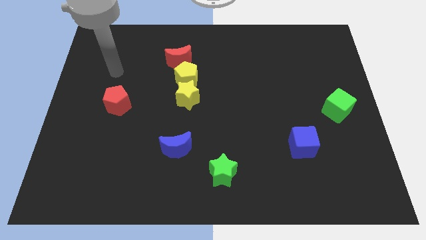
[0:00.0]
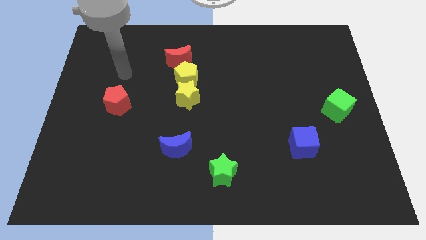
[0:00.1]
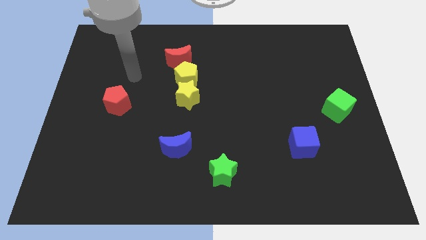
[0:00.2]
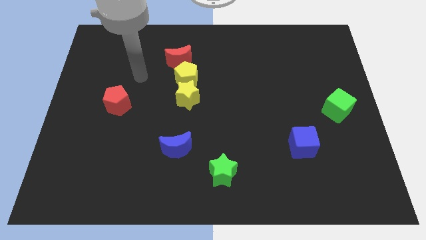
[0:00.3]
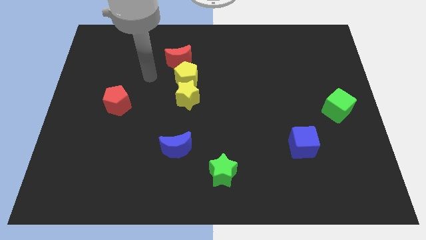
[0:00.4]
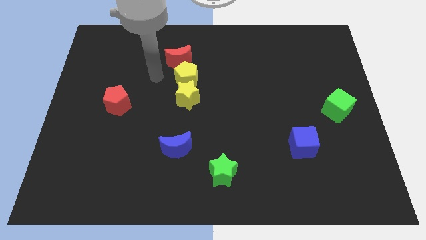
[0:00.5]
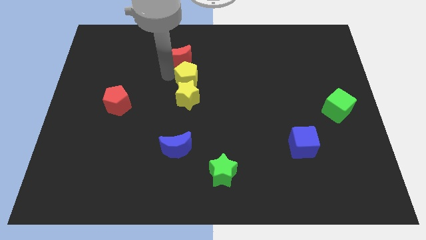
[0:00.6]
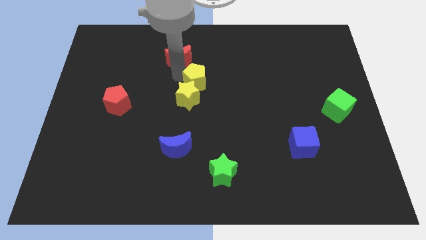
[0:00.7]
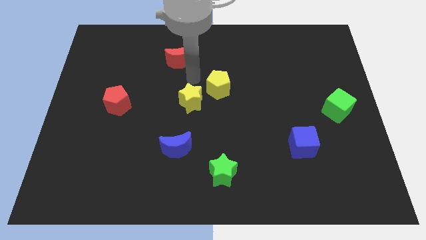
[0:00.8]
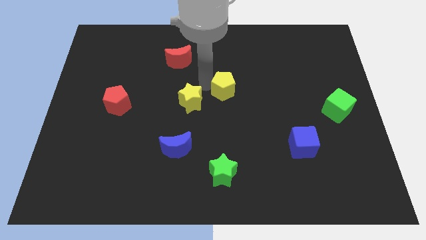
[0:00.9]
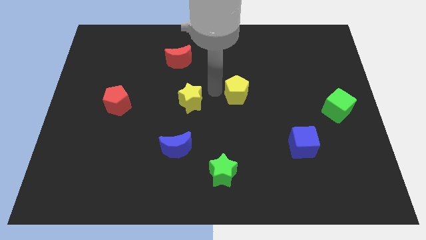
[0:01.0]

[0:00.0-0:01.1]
pull the yellow star apart from the yellow pentagon

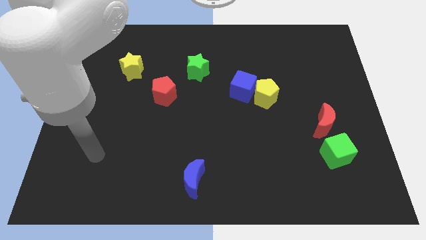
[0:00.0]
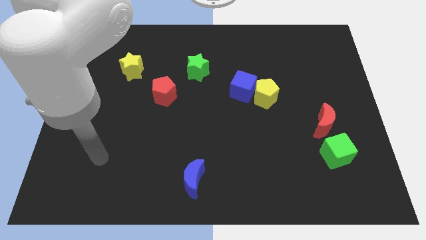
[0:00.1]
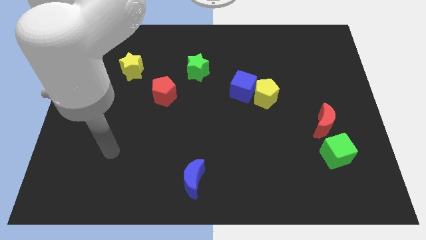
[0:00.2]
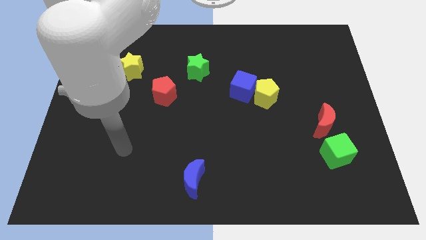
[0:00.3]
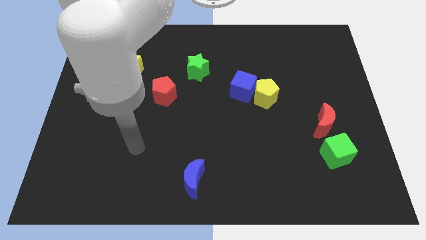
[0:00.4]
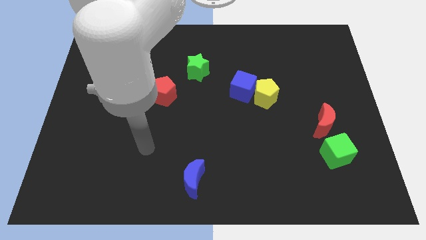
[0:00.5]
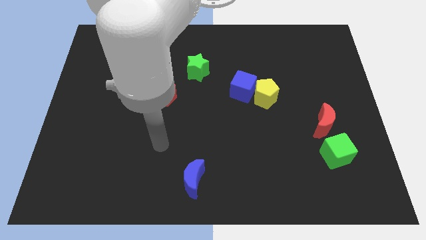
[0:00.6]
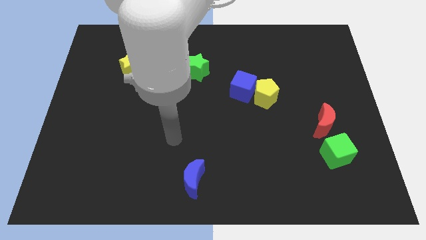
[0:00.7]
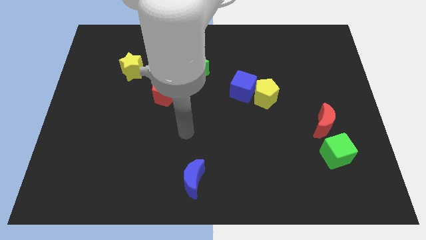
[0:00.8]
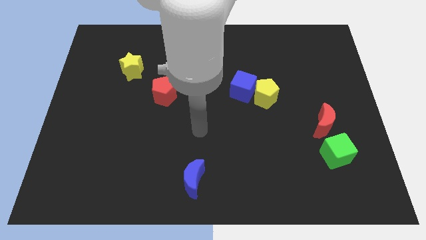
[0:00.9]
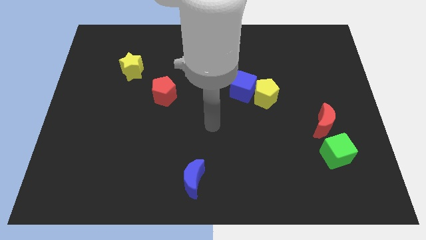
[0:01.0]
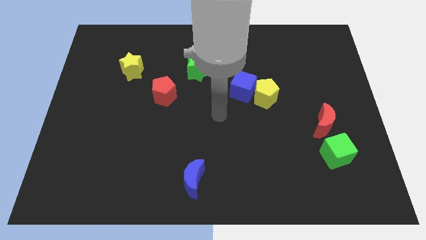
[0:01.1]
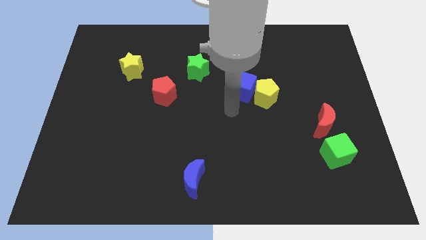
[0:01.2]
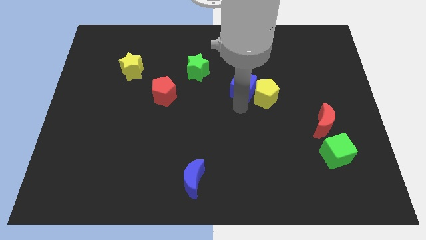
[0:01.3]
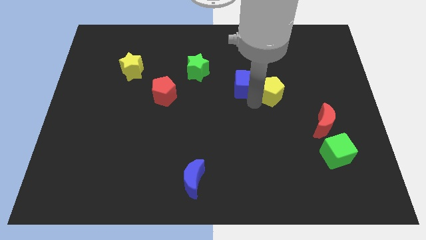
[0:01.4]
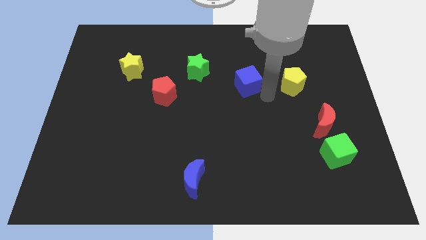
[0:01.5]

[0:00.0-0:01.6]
move the blue cube away from the yellow pentagon

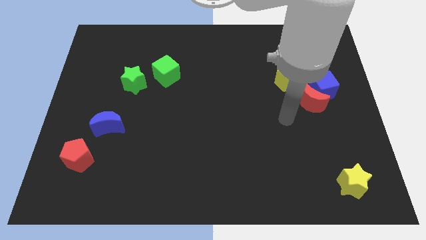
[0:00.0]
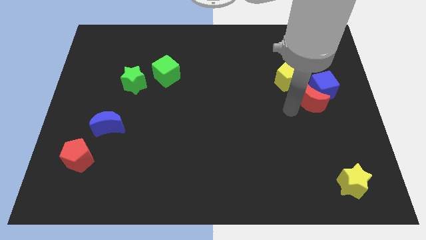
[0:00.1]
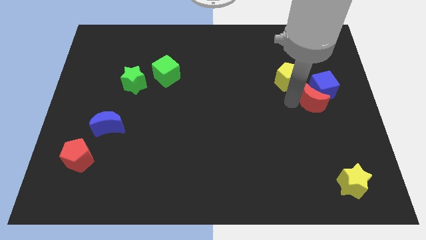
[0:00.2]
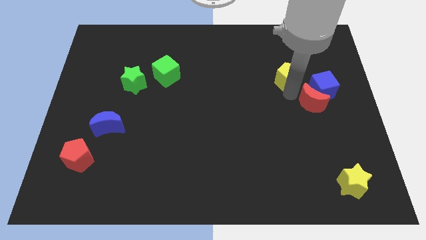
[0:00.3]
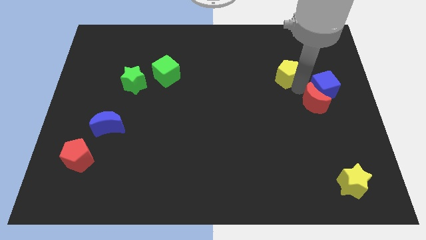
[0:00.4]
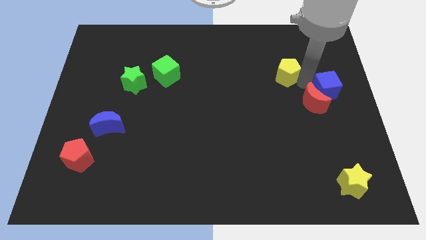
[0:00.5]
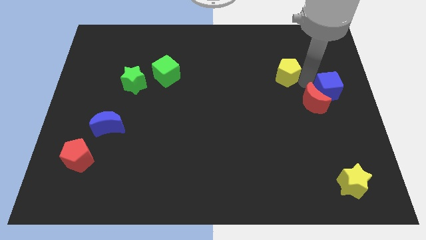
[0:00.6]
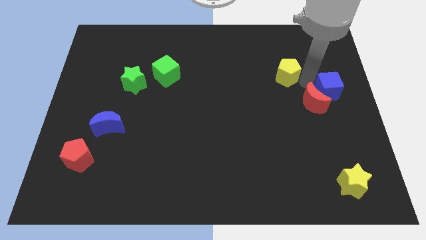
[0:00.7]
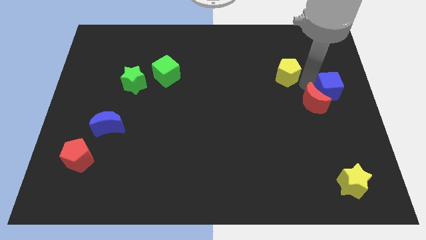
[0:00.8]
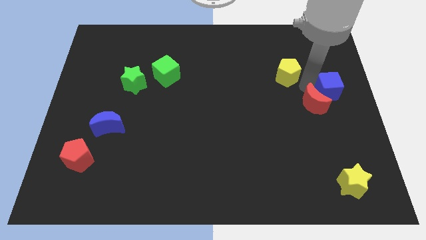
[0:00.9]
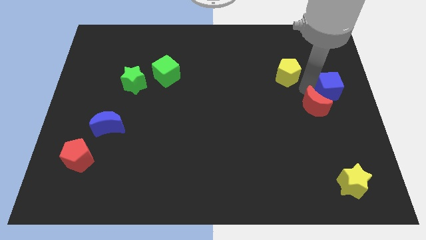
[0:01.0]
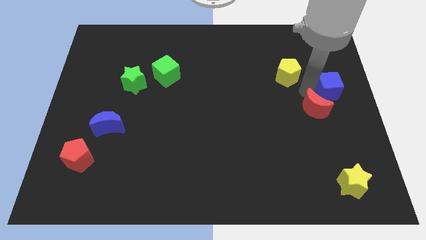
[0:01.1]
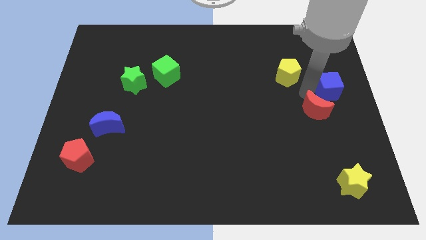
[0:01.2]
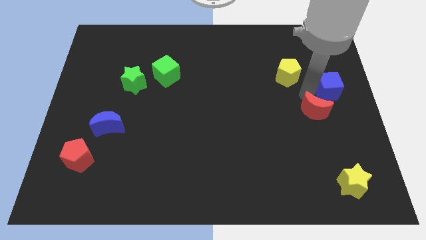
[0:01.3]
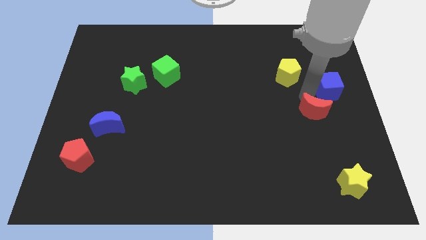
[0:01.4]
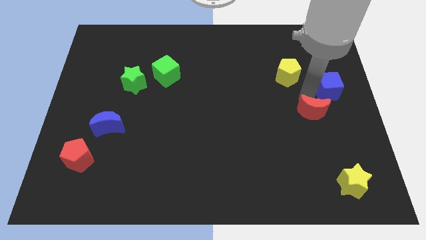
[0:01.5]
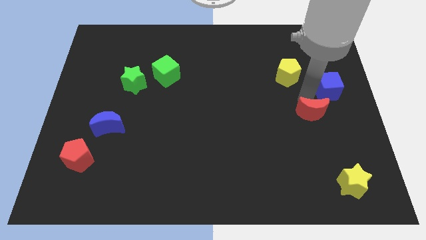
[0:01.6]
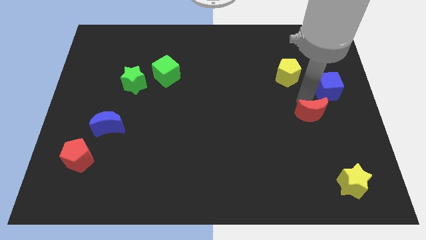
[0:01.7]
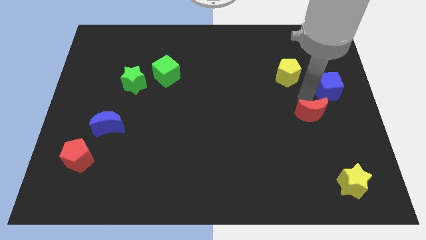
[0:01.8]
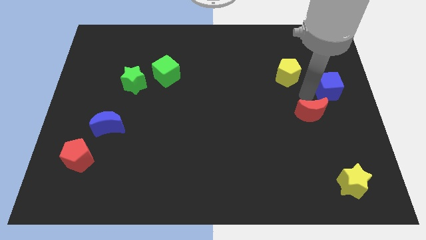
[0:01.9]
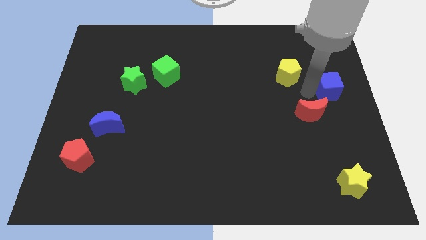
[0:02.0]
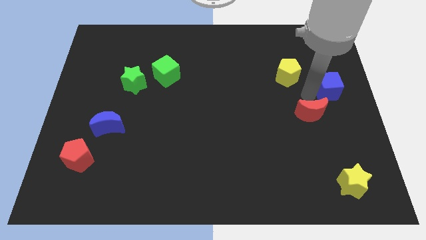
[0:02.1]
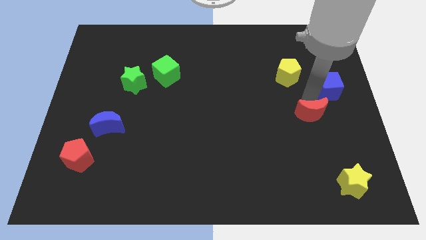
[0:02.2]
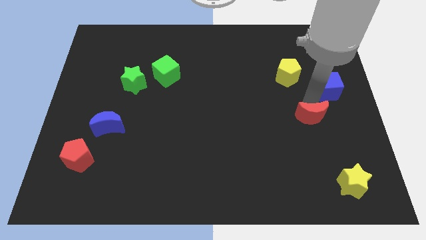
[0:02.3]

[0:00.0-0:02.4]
move the red moon away from the blue cube and yellow pentagon

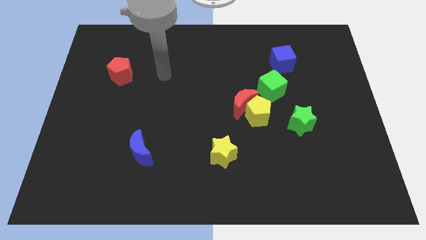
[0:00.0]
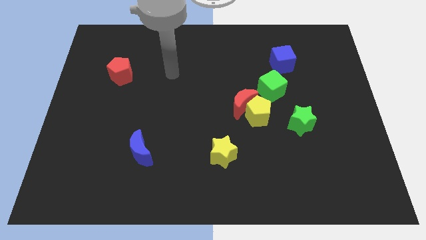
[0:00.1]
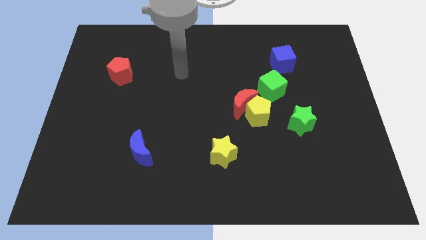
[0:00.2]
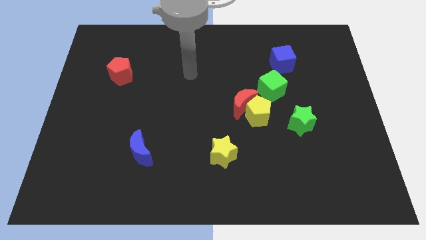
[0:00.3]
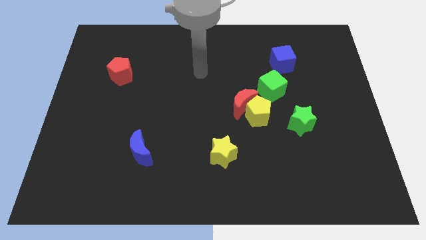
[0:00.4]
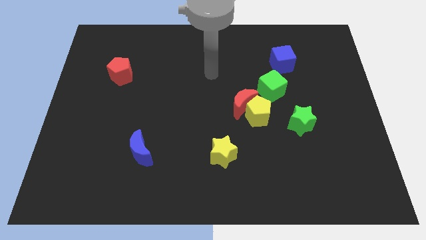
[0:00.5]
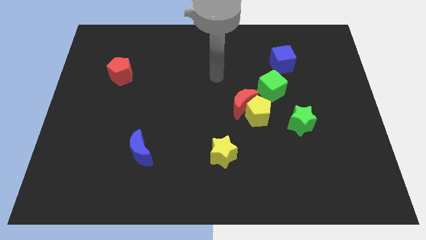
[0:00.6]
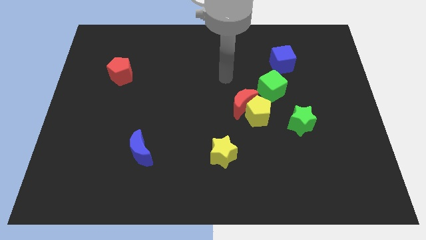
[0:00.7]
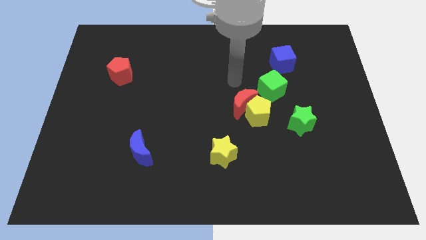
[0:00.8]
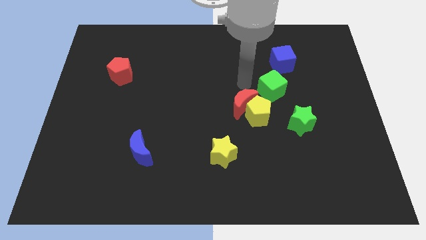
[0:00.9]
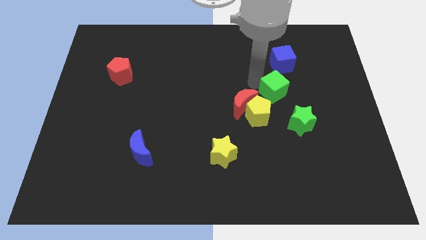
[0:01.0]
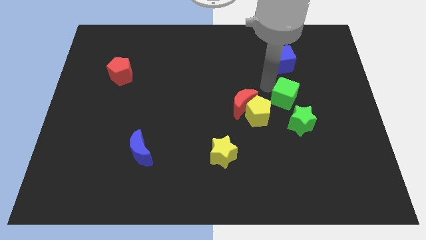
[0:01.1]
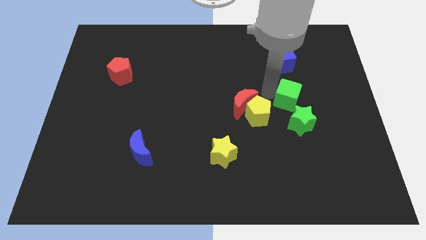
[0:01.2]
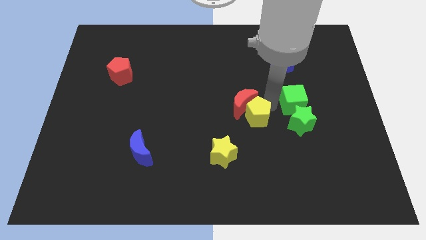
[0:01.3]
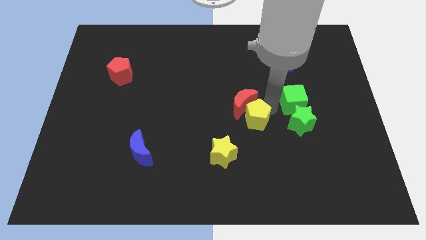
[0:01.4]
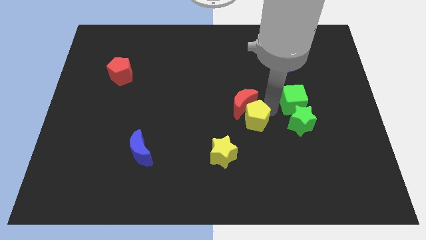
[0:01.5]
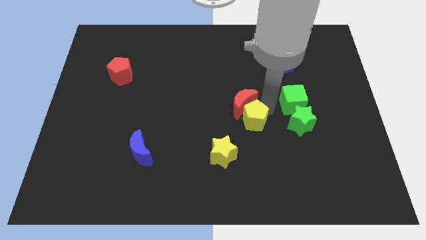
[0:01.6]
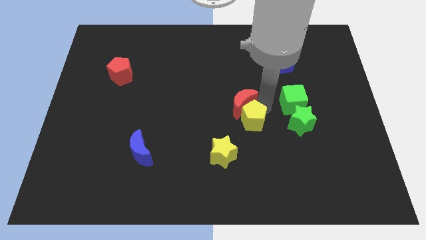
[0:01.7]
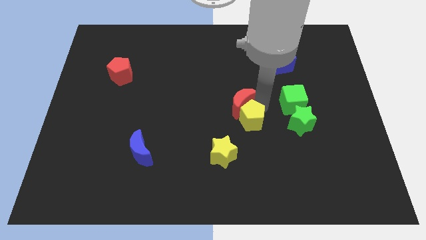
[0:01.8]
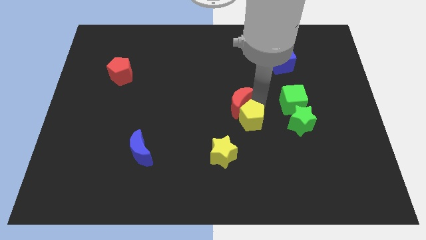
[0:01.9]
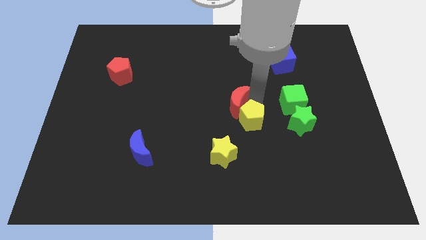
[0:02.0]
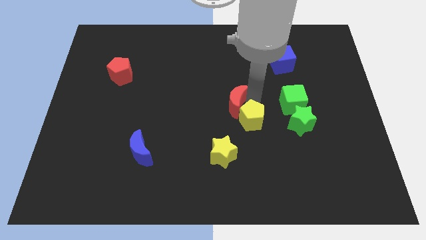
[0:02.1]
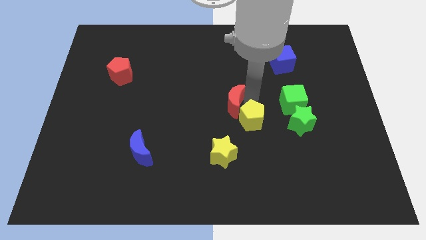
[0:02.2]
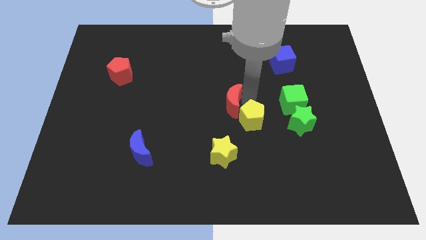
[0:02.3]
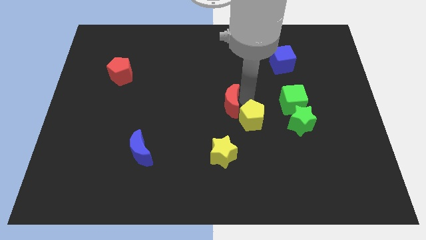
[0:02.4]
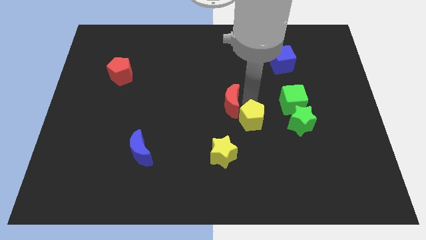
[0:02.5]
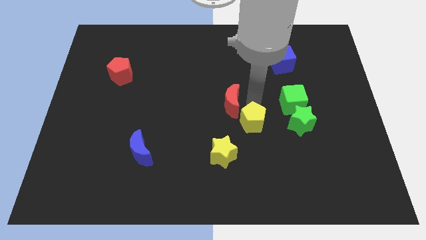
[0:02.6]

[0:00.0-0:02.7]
move the red moon away from the yellow pentagon and green cube

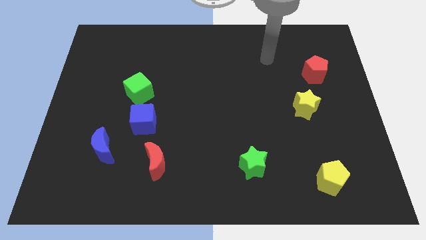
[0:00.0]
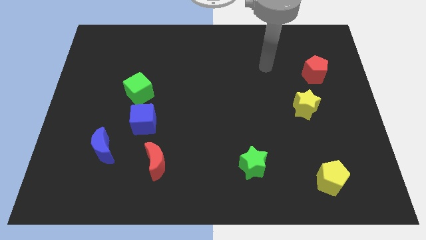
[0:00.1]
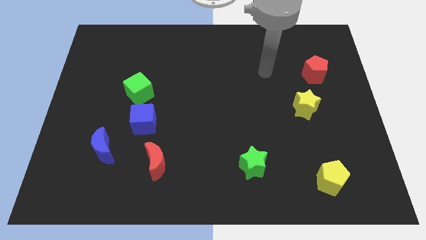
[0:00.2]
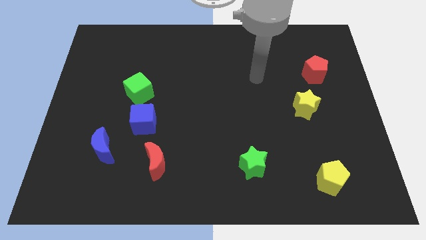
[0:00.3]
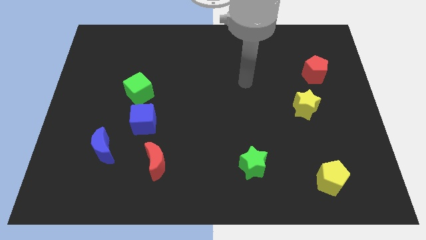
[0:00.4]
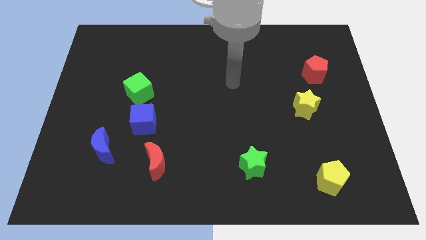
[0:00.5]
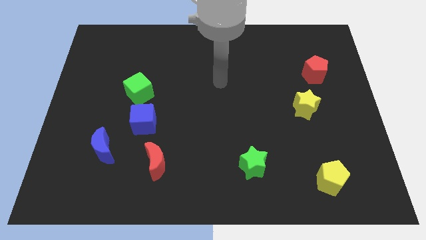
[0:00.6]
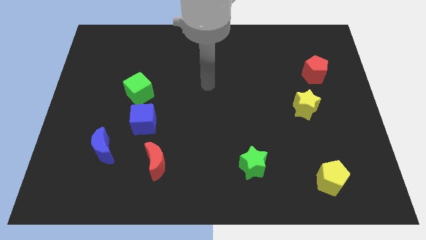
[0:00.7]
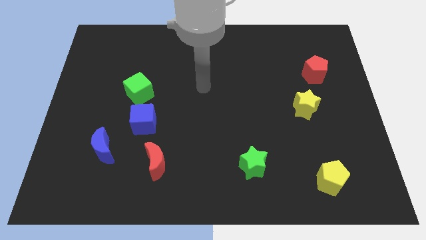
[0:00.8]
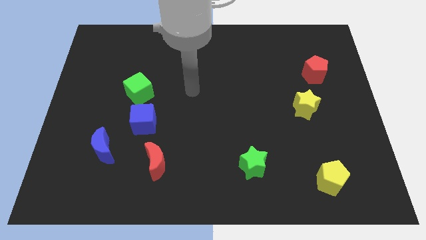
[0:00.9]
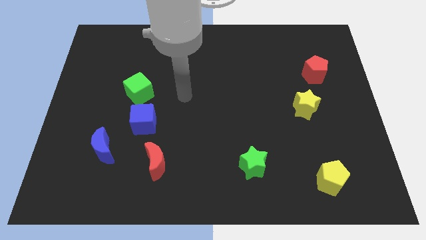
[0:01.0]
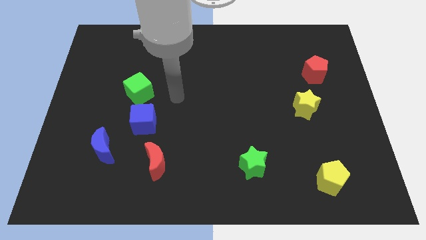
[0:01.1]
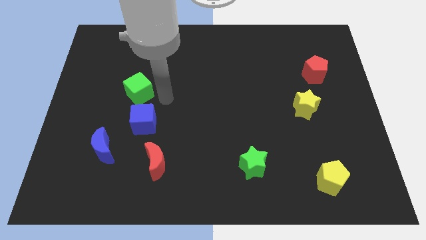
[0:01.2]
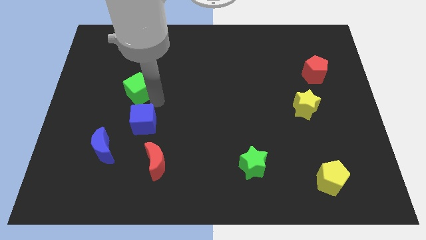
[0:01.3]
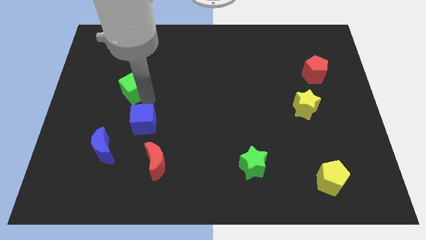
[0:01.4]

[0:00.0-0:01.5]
move the blue cube away from the green cube

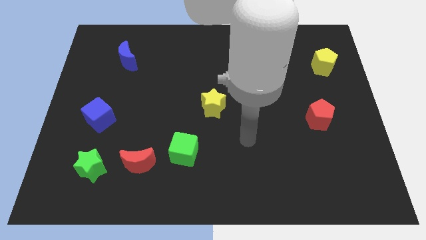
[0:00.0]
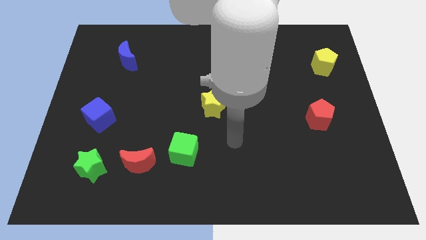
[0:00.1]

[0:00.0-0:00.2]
separate the green cube from the red moon
